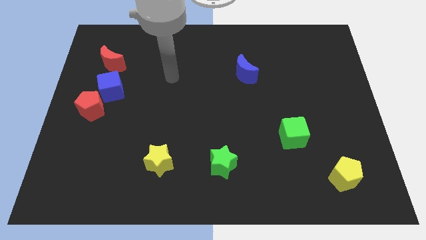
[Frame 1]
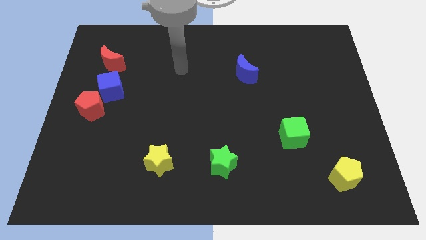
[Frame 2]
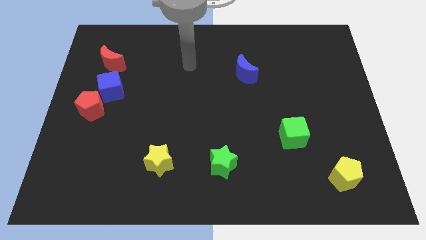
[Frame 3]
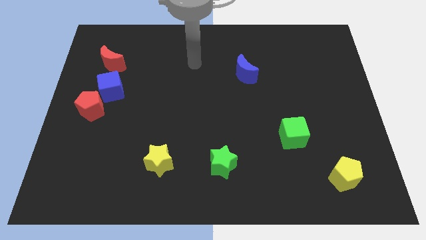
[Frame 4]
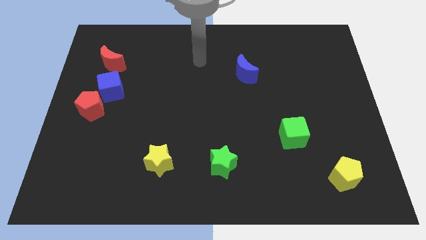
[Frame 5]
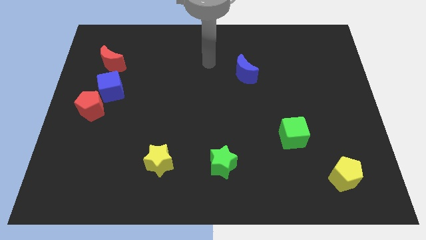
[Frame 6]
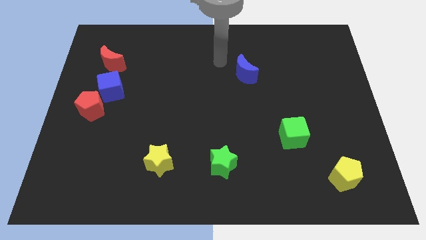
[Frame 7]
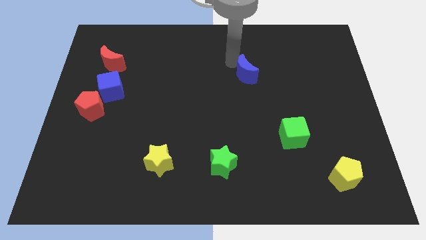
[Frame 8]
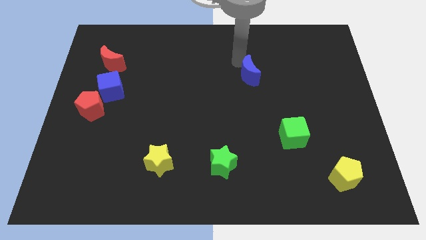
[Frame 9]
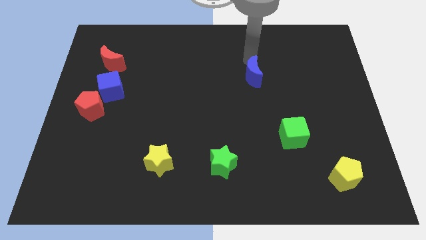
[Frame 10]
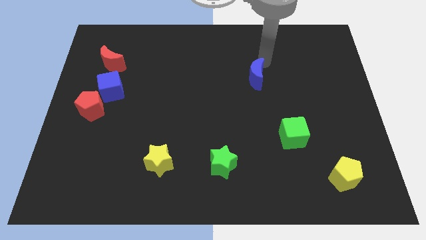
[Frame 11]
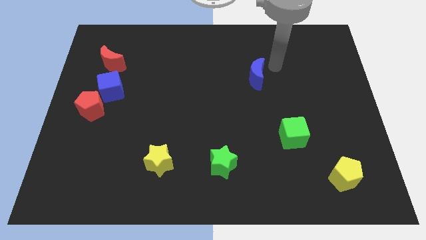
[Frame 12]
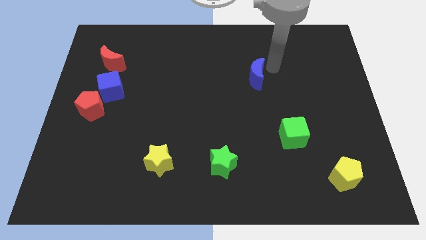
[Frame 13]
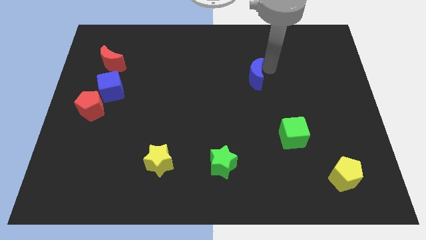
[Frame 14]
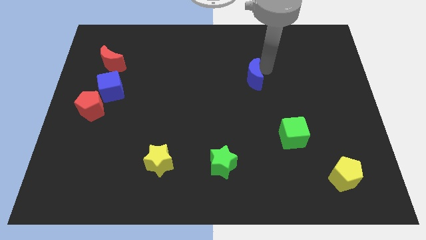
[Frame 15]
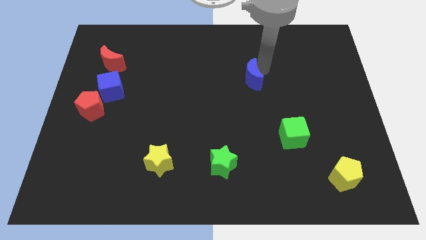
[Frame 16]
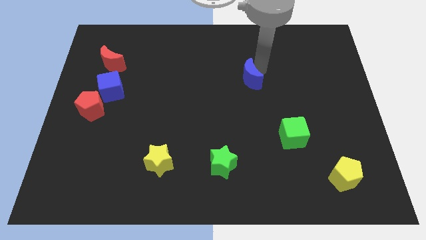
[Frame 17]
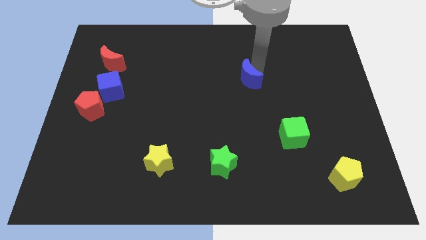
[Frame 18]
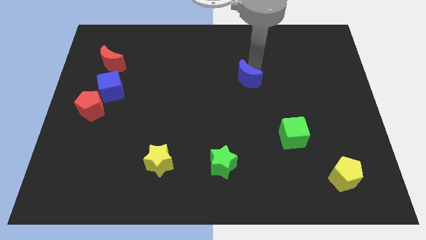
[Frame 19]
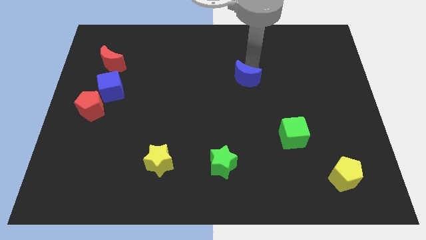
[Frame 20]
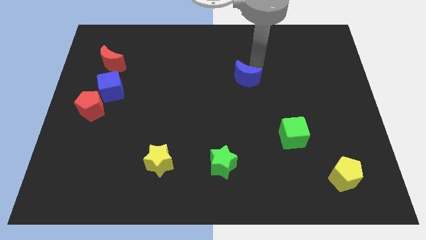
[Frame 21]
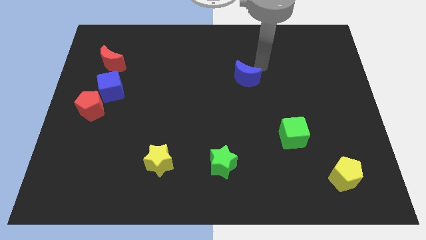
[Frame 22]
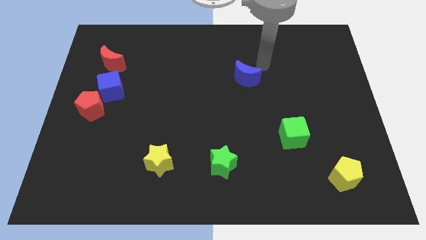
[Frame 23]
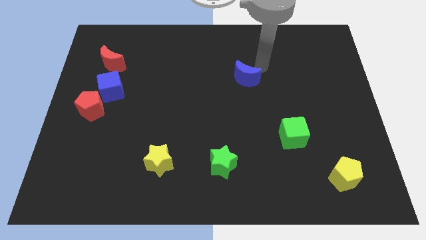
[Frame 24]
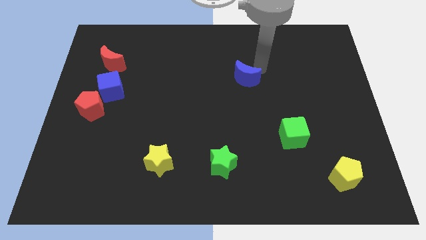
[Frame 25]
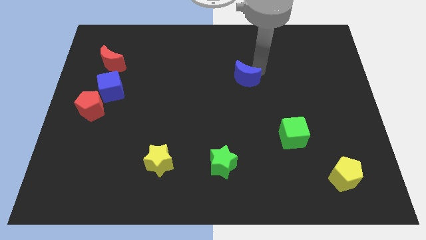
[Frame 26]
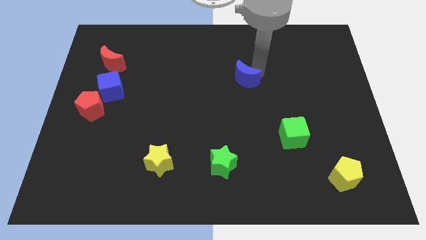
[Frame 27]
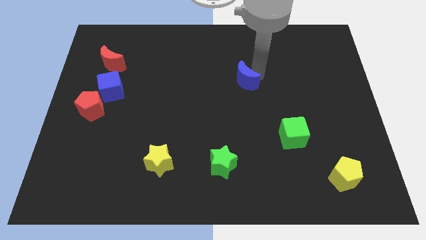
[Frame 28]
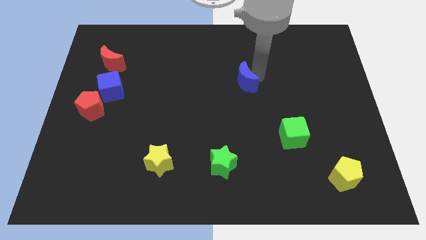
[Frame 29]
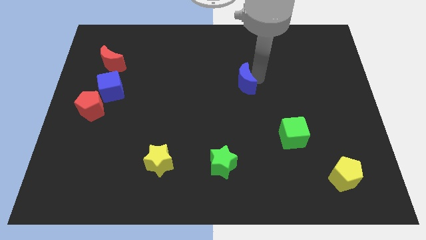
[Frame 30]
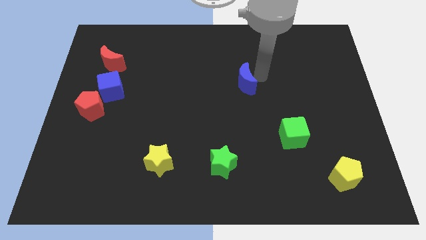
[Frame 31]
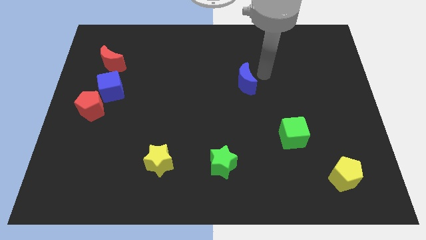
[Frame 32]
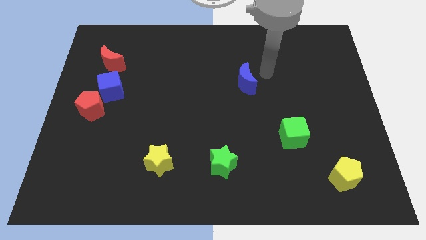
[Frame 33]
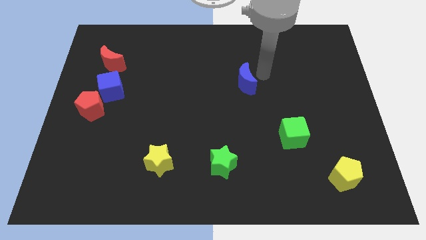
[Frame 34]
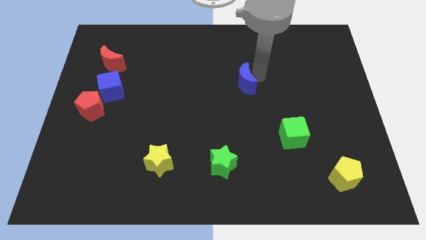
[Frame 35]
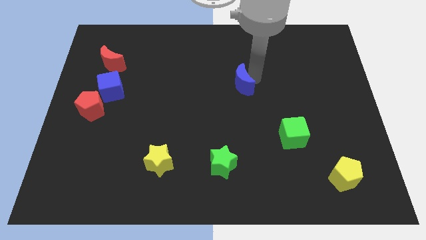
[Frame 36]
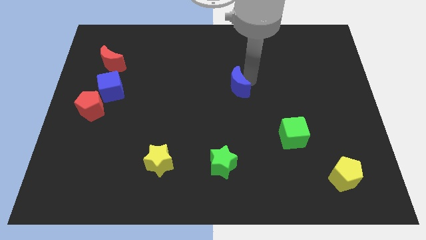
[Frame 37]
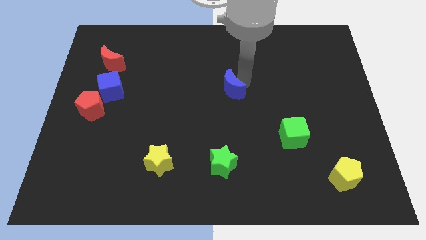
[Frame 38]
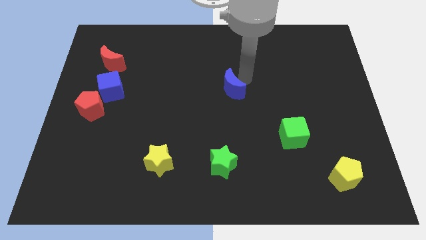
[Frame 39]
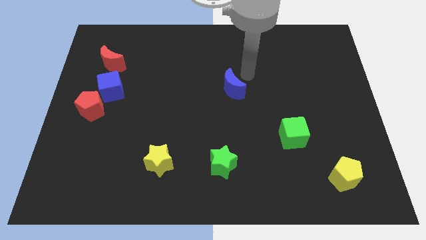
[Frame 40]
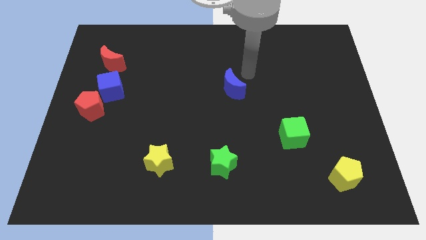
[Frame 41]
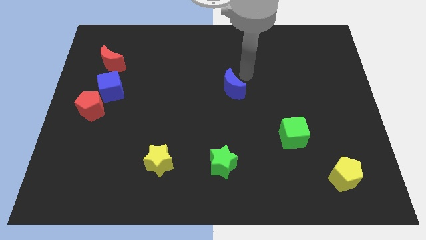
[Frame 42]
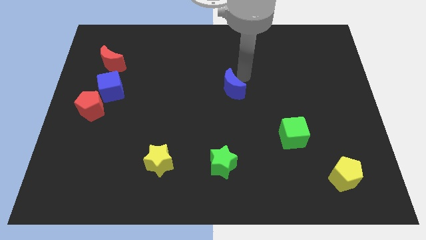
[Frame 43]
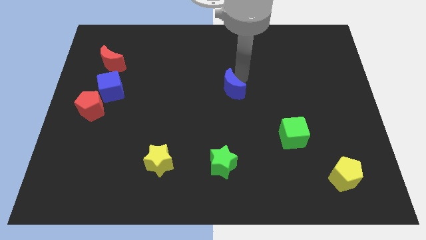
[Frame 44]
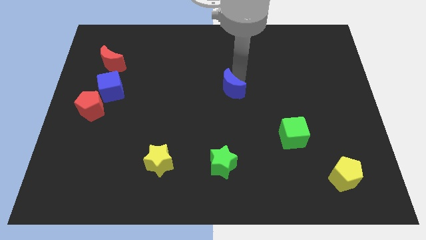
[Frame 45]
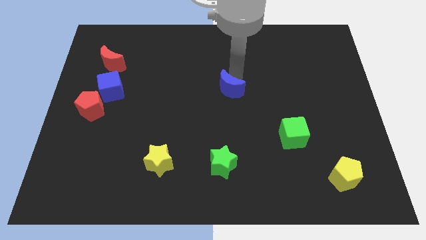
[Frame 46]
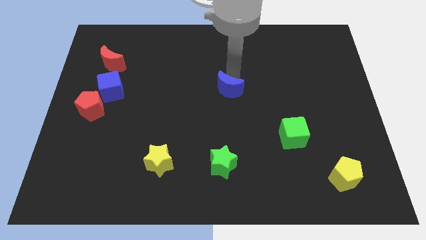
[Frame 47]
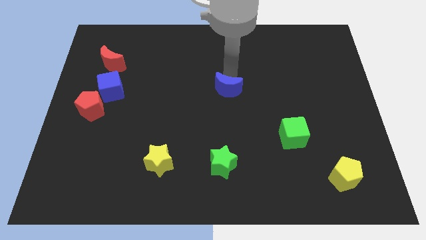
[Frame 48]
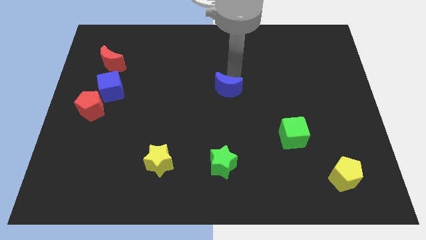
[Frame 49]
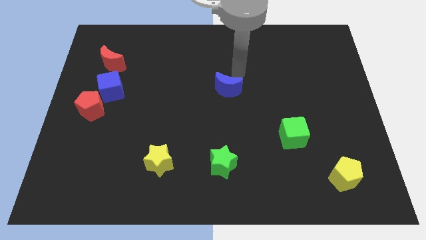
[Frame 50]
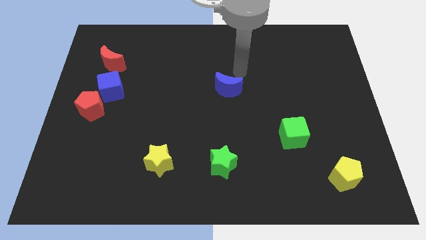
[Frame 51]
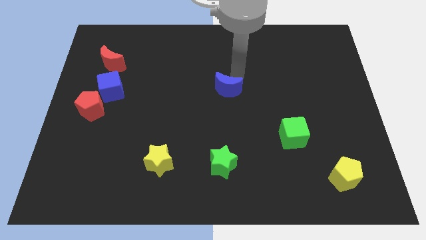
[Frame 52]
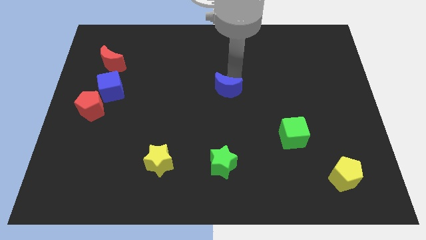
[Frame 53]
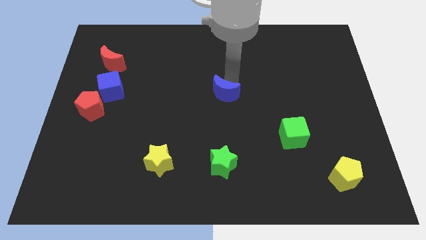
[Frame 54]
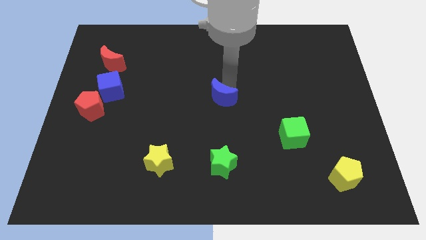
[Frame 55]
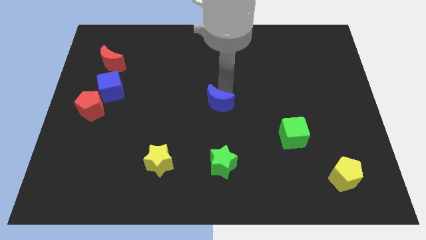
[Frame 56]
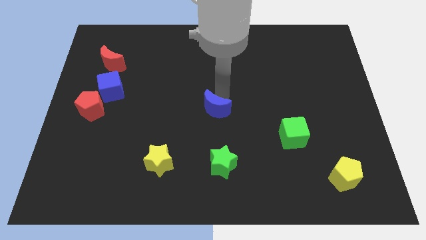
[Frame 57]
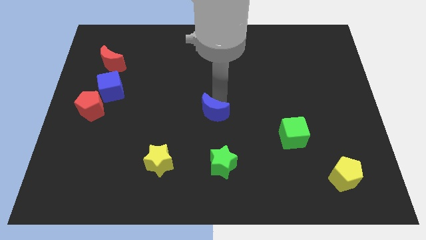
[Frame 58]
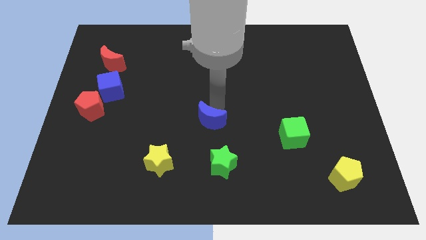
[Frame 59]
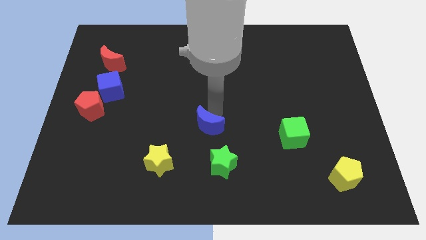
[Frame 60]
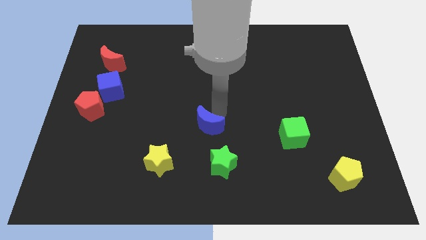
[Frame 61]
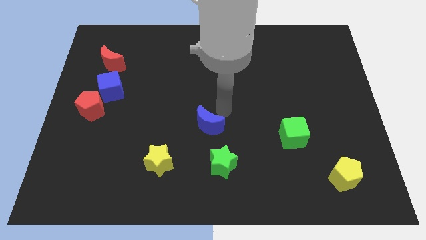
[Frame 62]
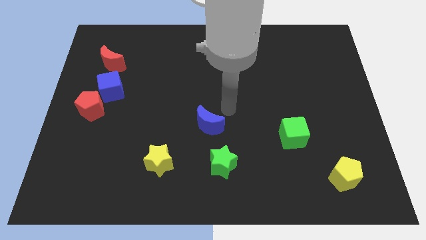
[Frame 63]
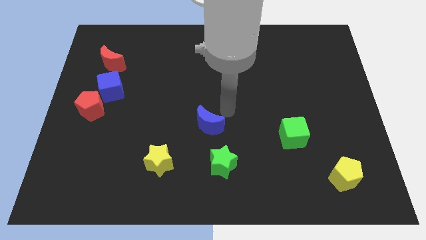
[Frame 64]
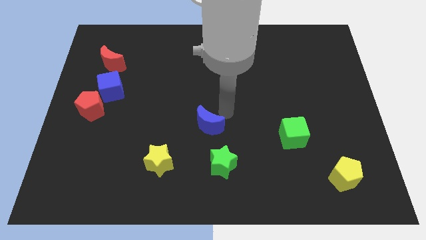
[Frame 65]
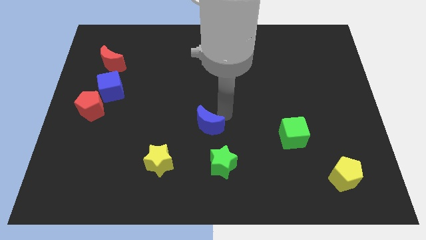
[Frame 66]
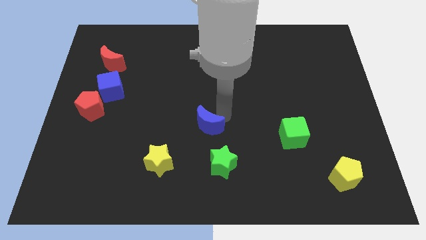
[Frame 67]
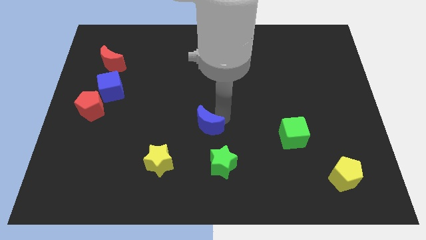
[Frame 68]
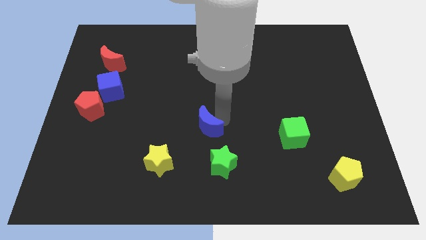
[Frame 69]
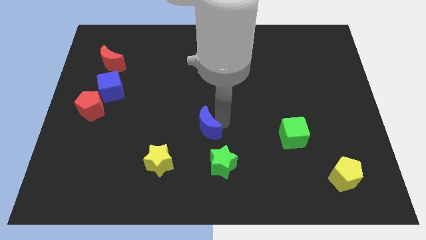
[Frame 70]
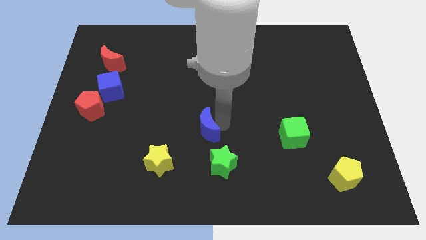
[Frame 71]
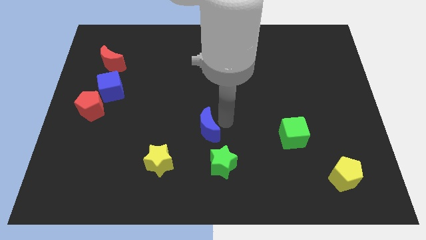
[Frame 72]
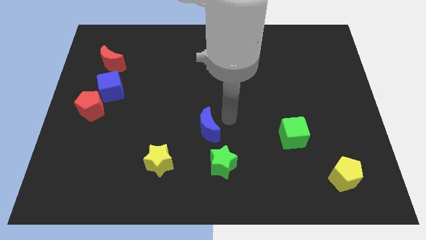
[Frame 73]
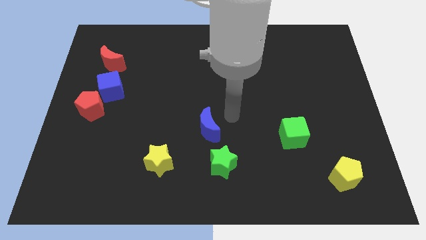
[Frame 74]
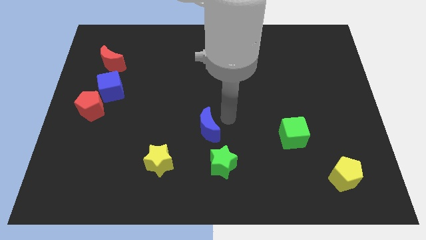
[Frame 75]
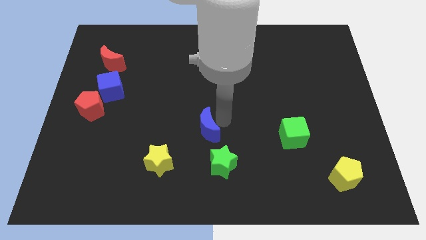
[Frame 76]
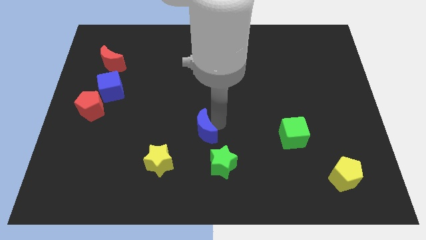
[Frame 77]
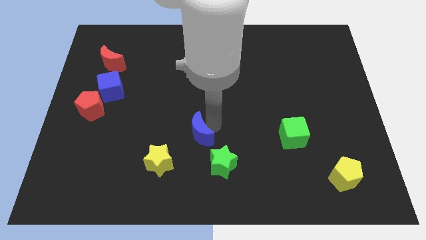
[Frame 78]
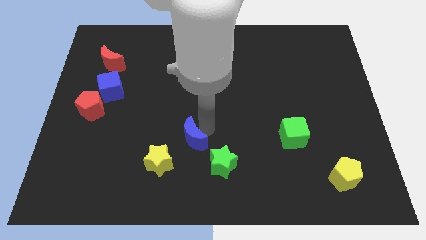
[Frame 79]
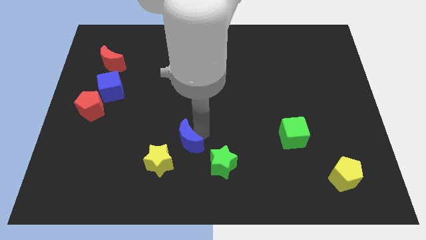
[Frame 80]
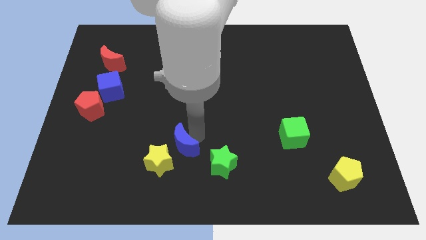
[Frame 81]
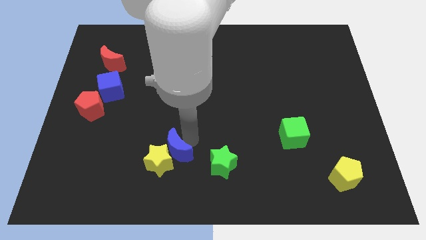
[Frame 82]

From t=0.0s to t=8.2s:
push the blue moon next to the yellow star

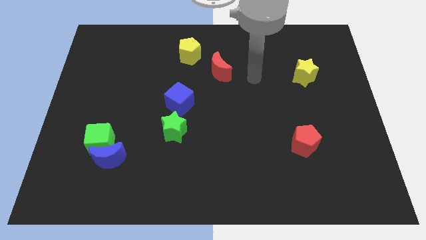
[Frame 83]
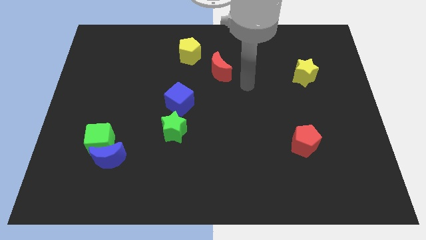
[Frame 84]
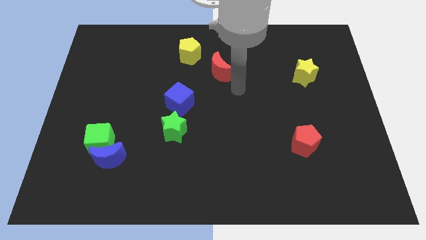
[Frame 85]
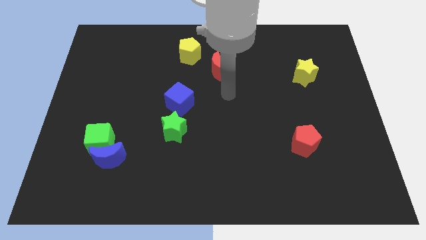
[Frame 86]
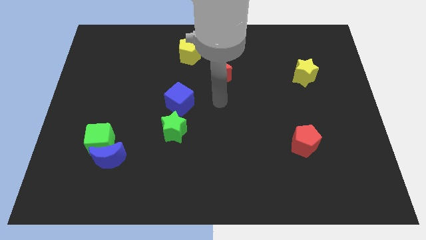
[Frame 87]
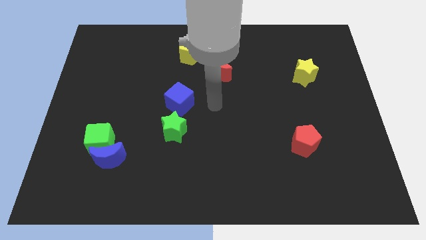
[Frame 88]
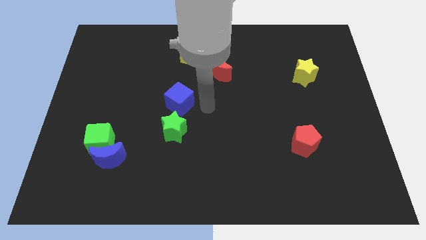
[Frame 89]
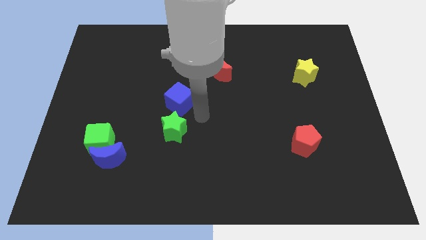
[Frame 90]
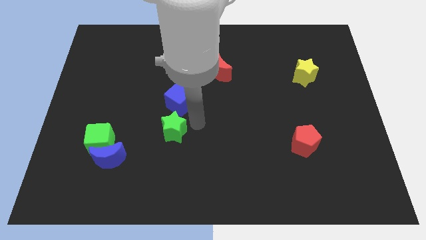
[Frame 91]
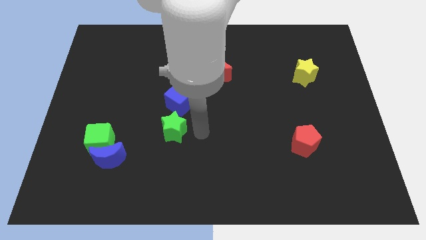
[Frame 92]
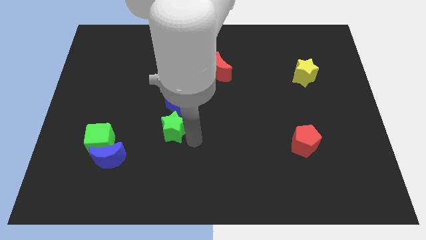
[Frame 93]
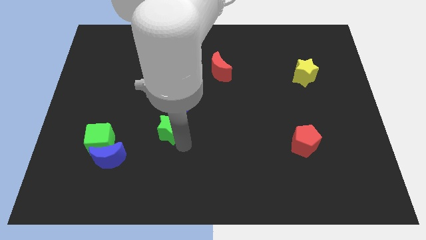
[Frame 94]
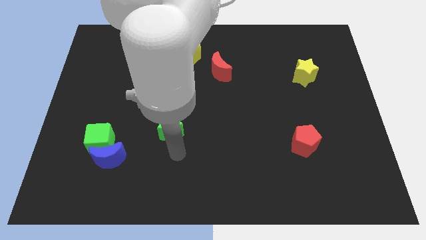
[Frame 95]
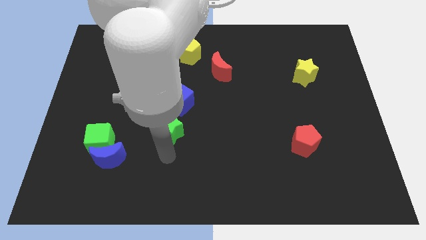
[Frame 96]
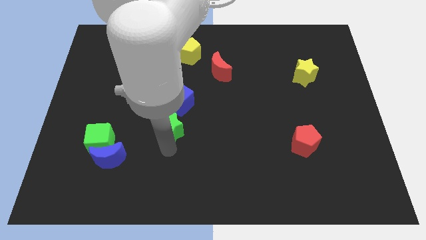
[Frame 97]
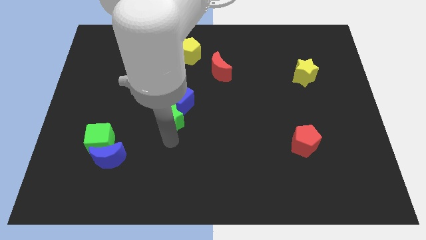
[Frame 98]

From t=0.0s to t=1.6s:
move the green star next to the blue cube
